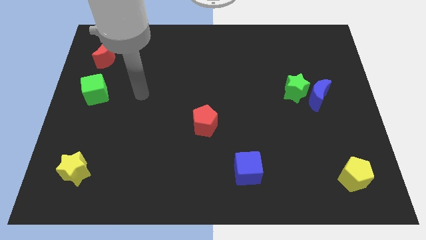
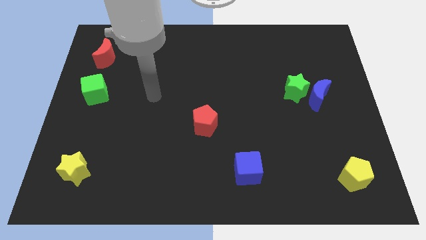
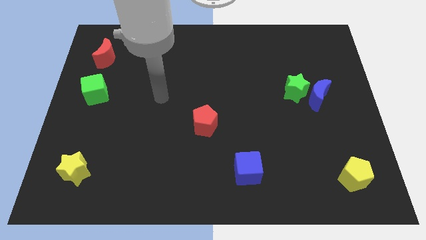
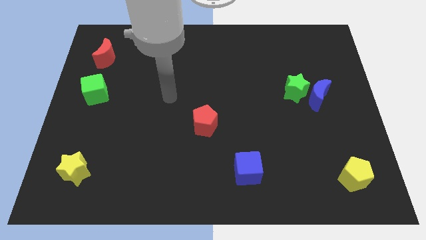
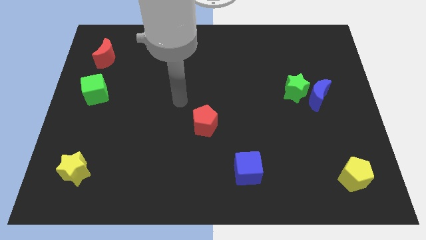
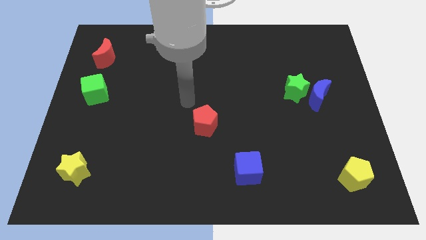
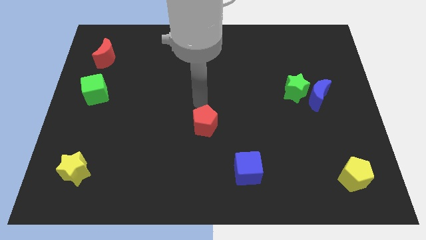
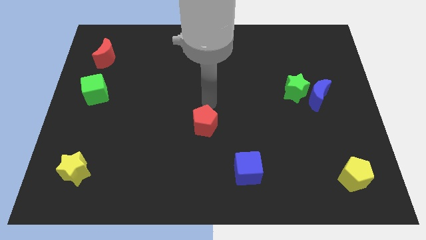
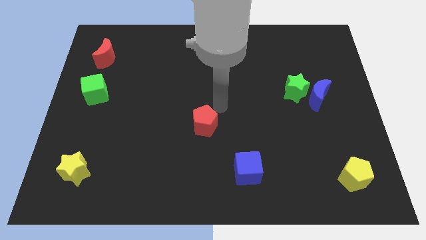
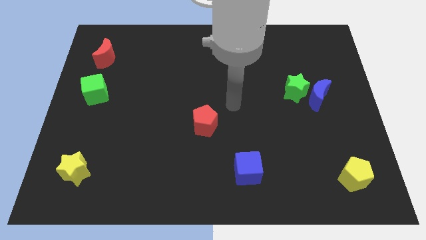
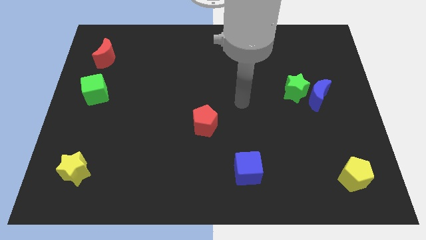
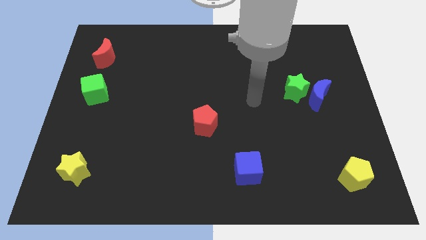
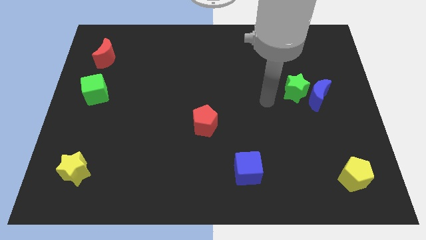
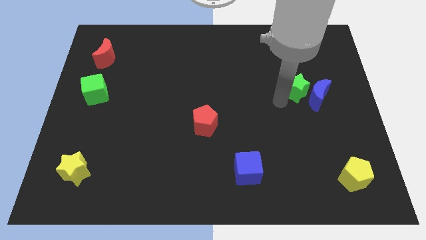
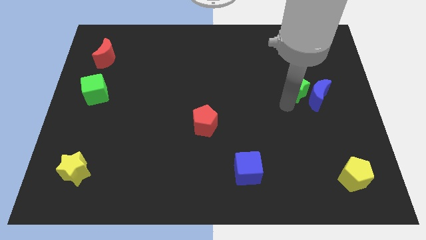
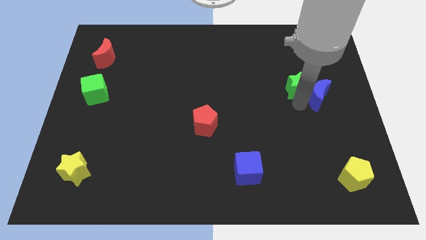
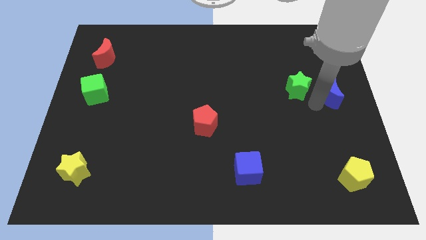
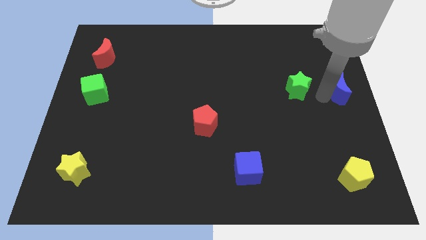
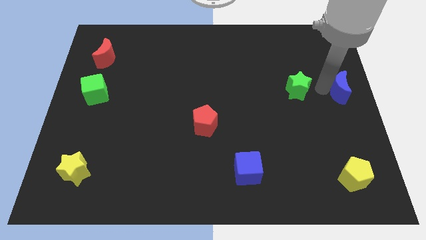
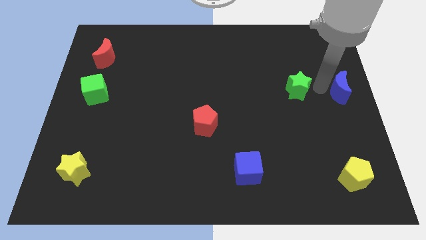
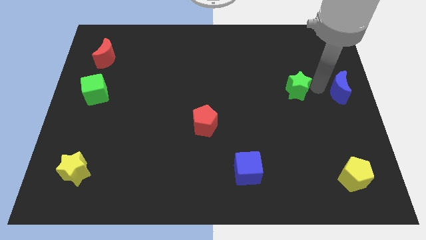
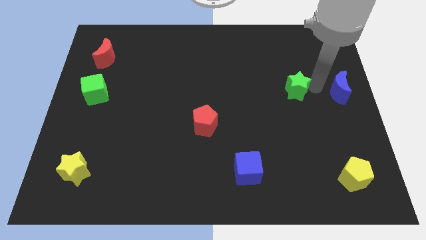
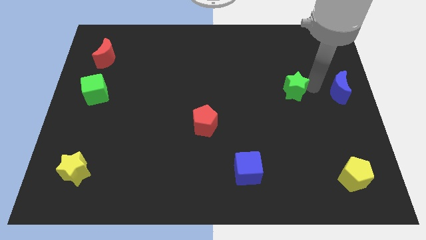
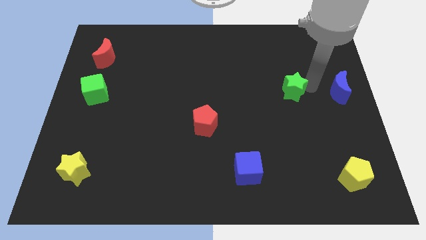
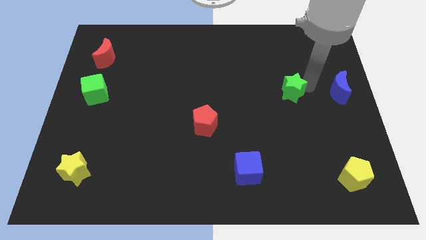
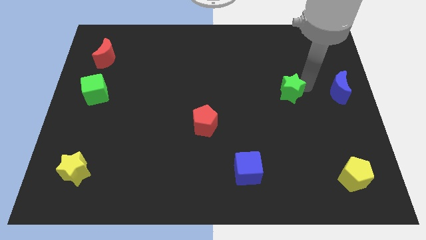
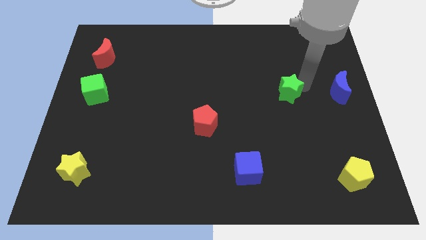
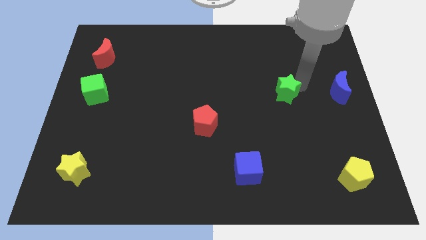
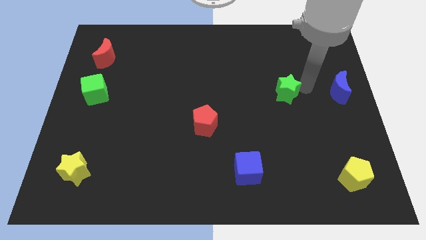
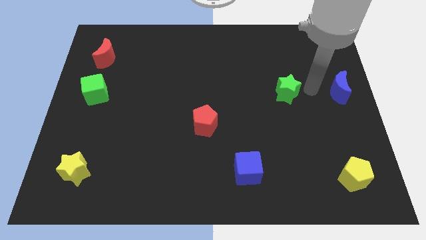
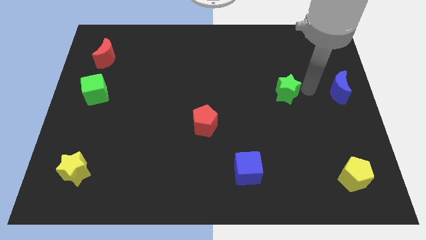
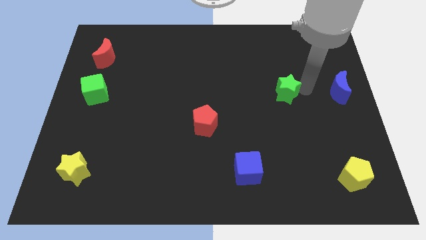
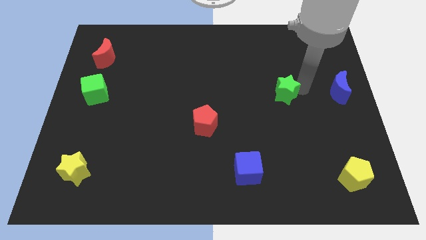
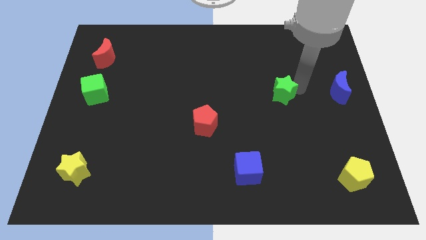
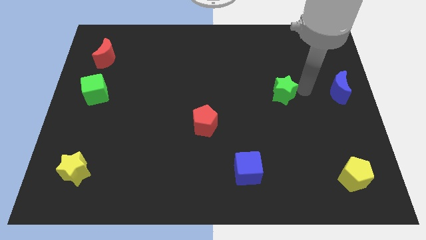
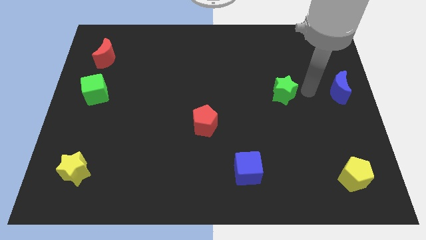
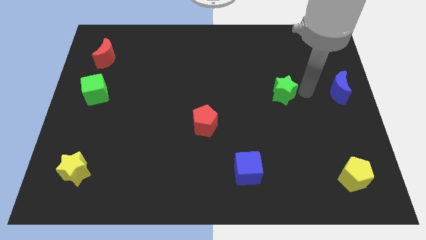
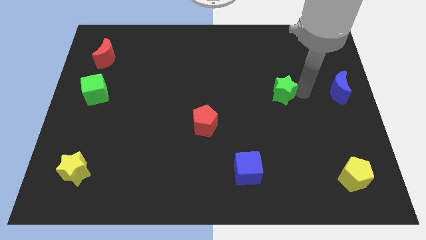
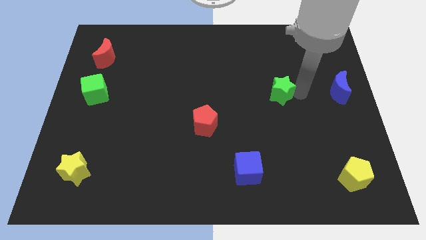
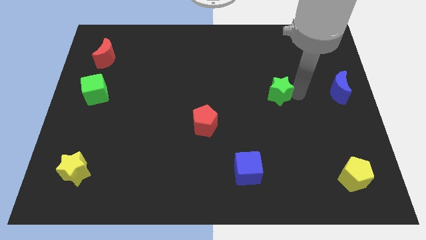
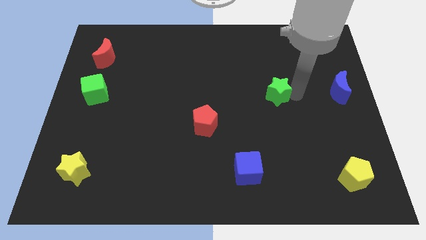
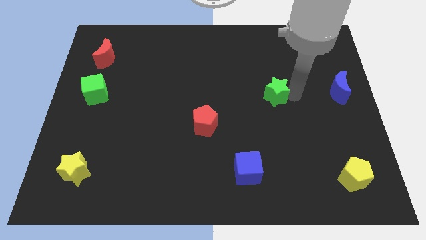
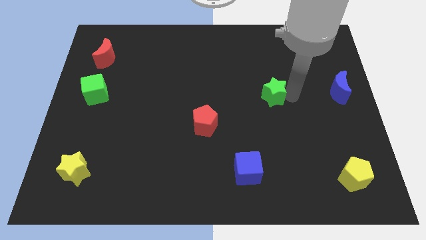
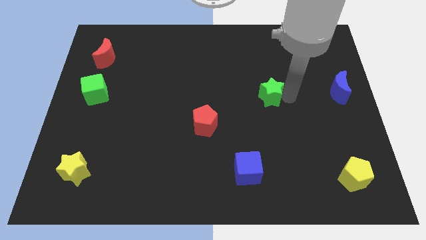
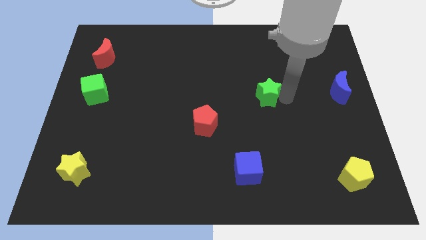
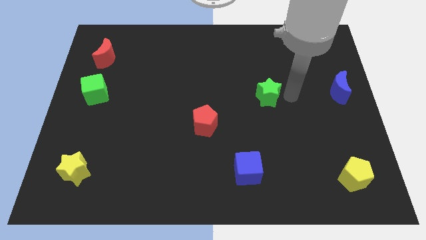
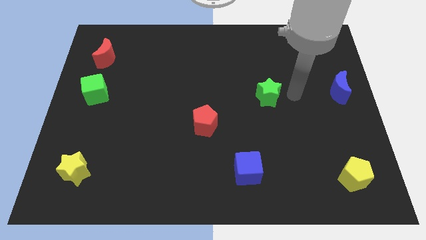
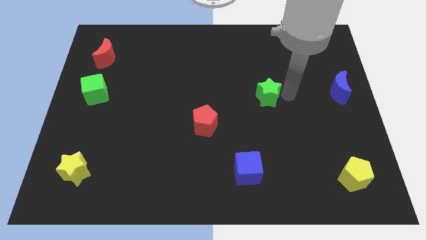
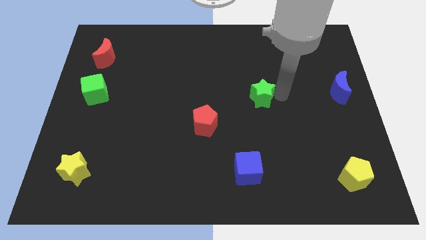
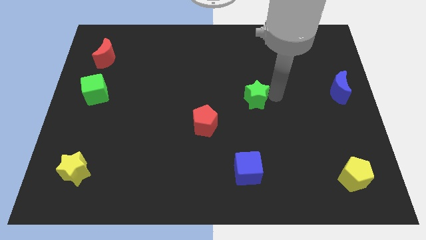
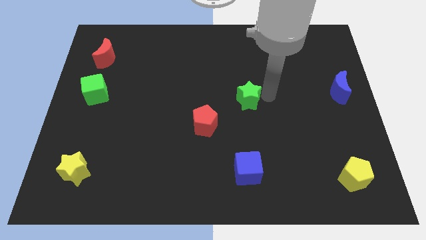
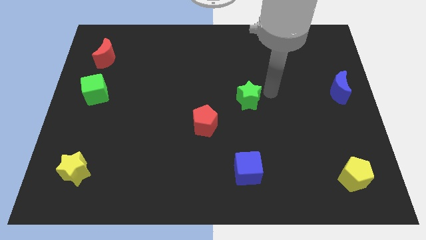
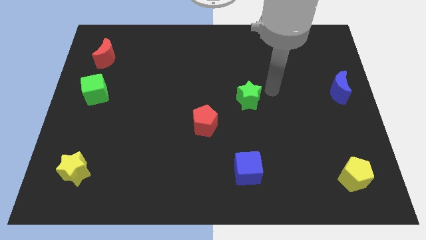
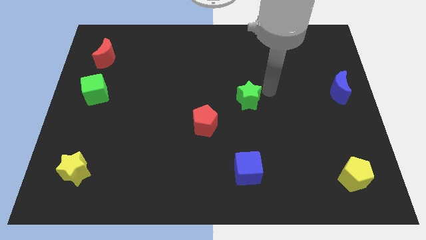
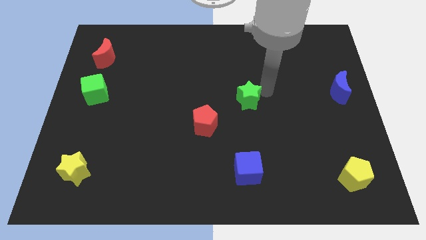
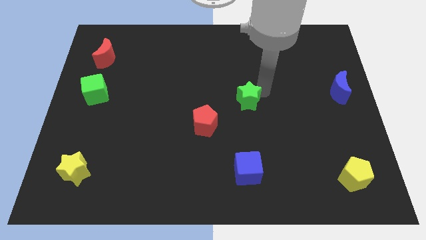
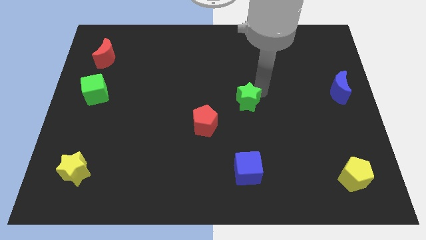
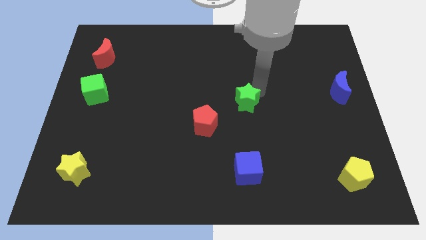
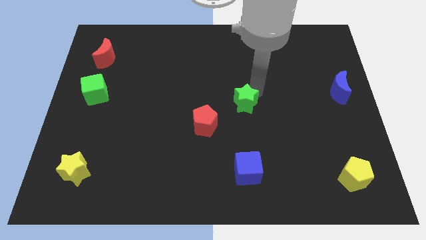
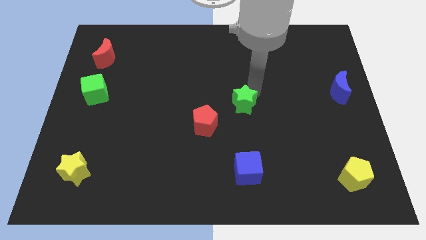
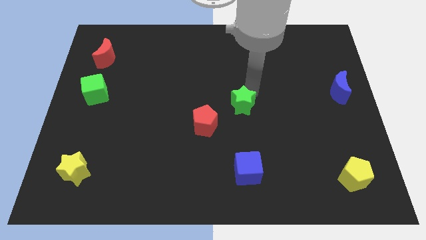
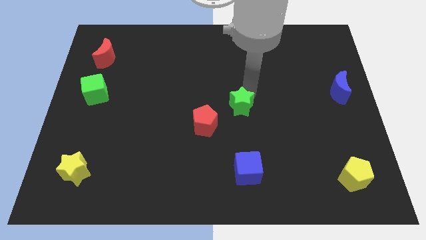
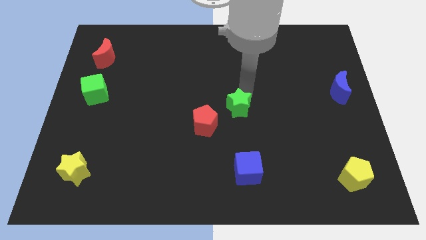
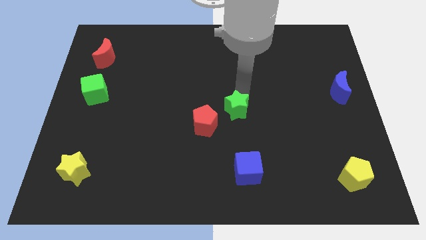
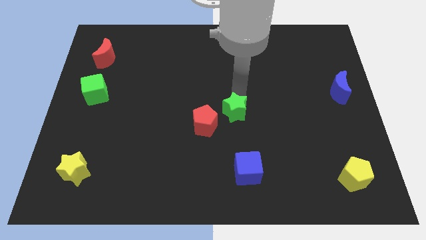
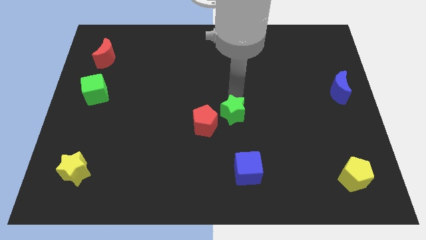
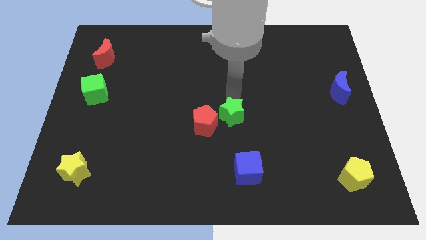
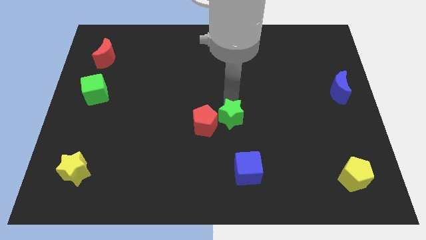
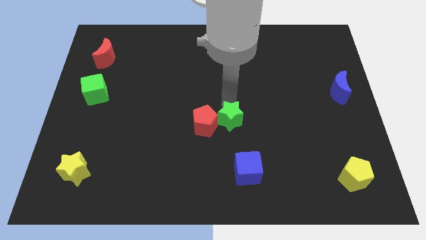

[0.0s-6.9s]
put the green star to the red pentagon

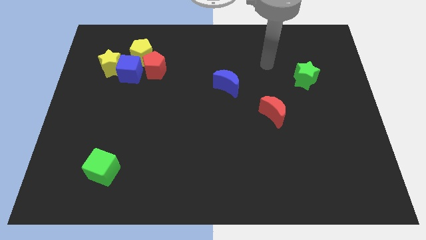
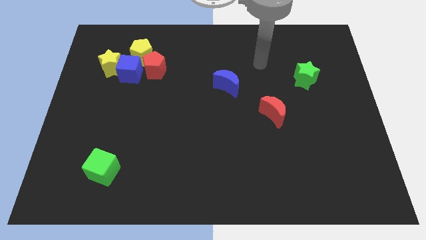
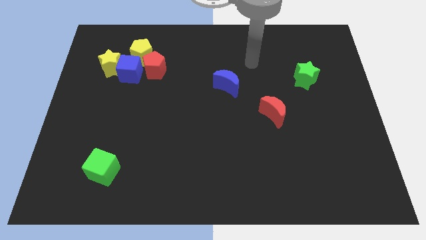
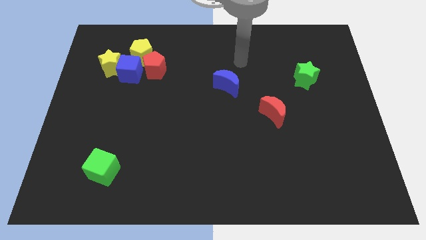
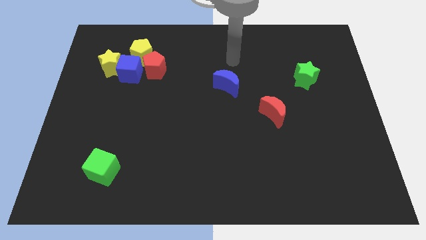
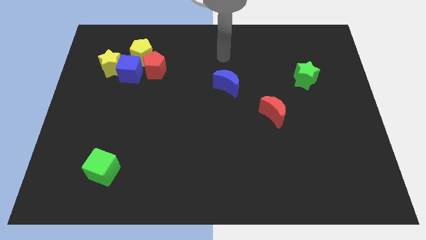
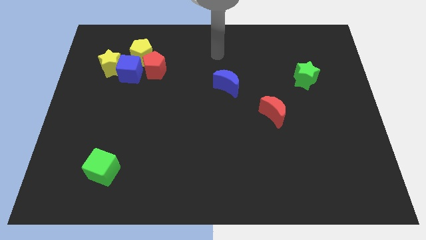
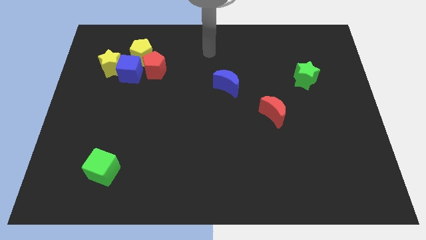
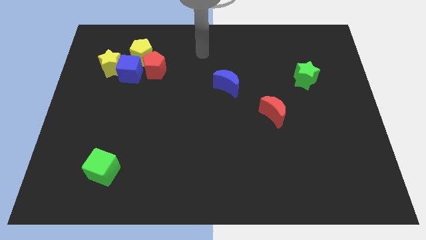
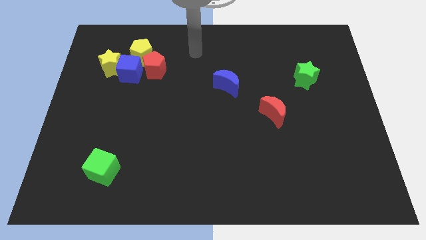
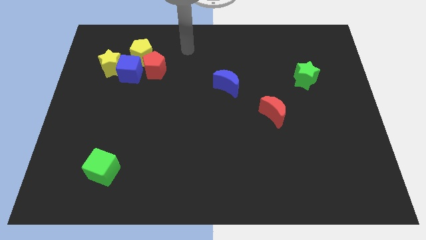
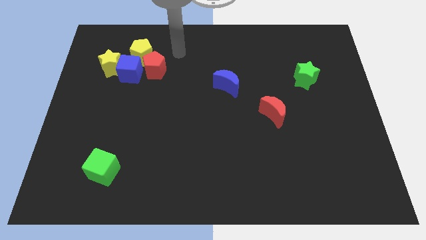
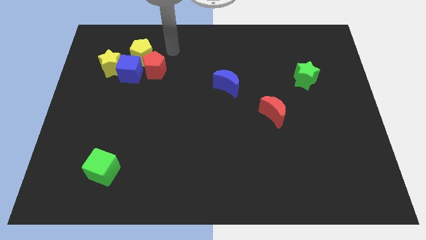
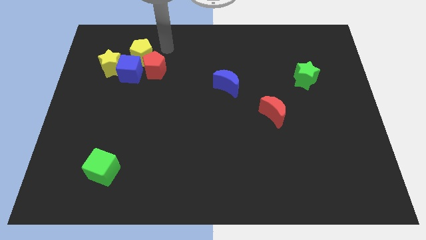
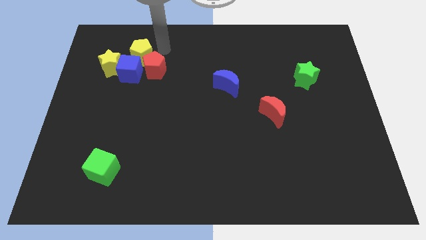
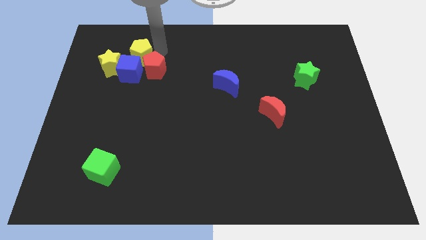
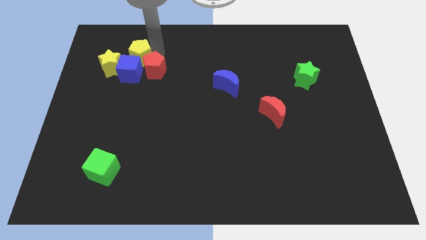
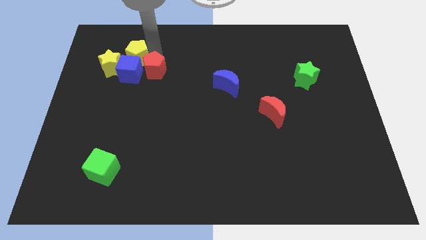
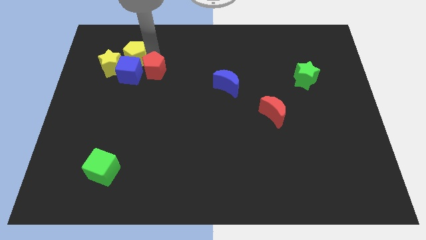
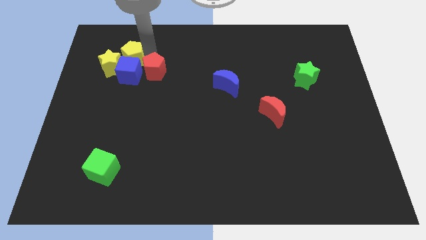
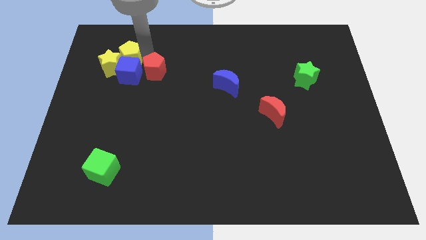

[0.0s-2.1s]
slide the yellow pentagon close to the yellow star
